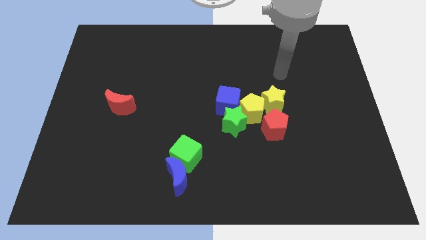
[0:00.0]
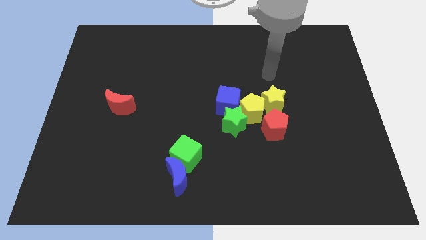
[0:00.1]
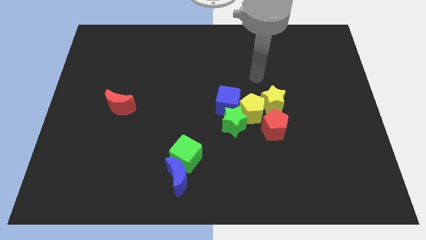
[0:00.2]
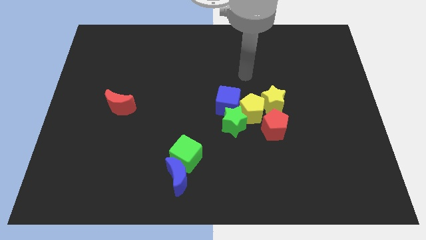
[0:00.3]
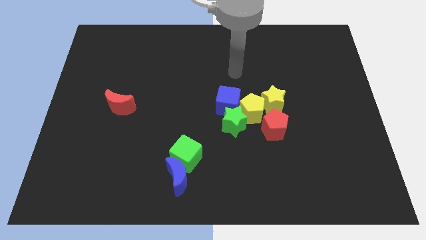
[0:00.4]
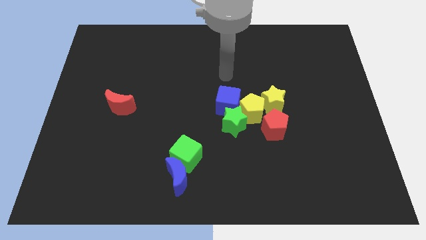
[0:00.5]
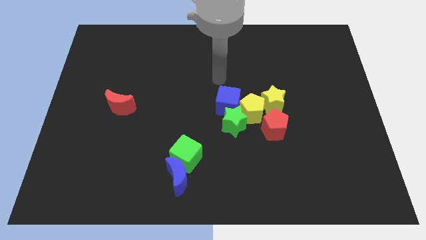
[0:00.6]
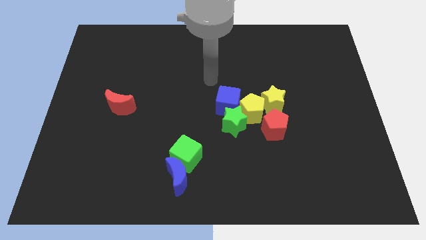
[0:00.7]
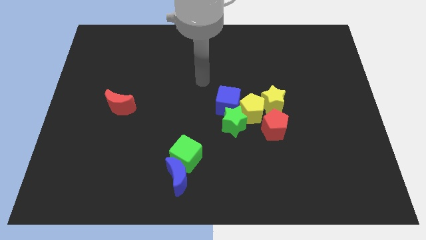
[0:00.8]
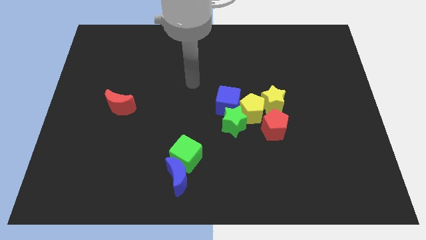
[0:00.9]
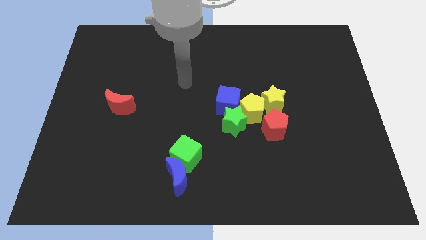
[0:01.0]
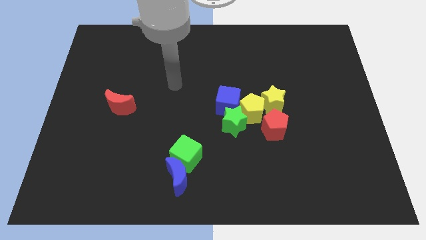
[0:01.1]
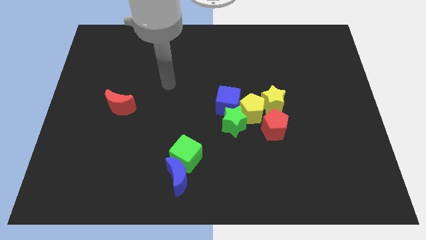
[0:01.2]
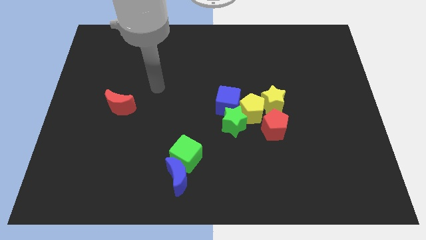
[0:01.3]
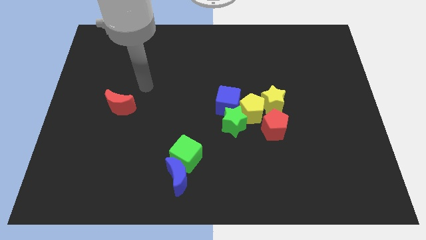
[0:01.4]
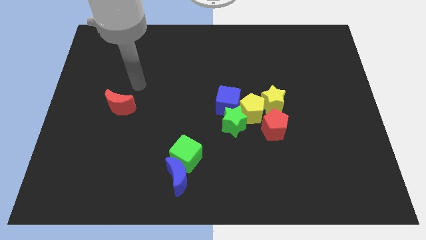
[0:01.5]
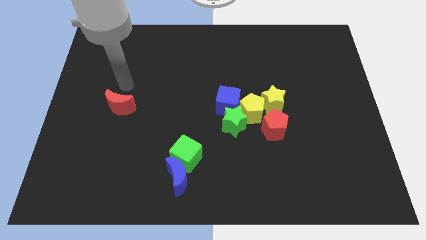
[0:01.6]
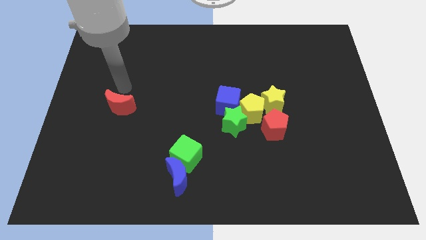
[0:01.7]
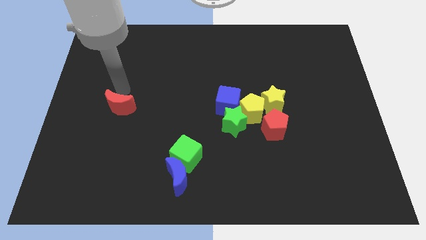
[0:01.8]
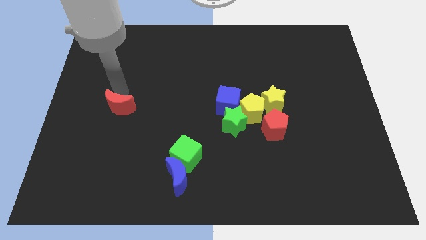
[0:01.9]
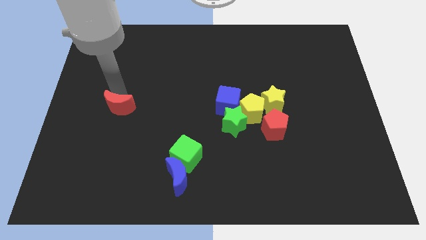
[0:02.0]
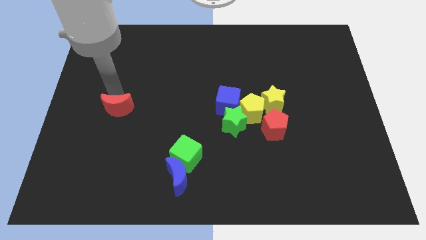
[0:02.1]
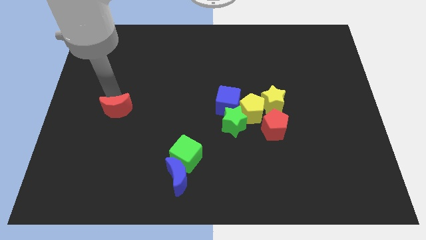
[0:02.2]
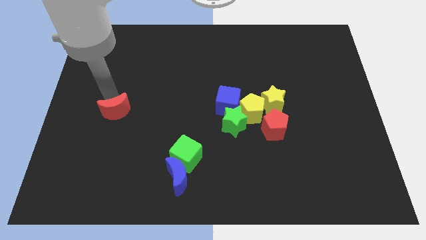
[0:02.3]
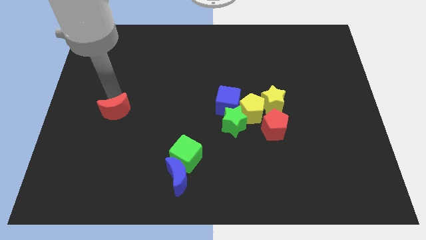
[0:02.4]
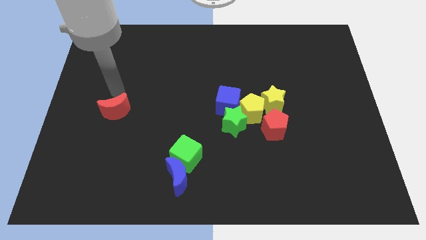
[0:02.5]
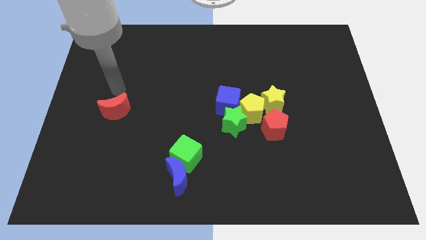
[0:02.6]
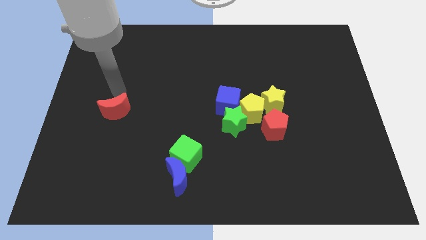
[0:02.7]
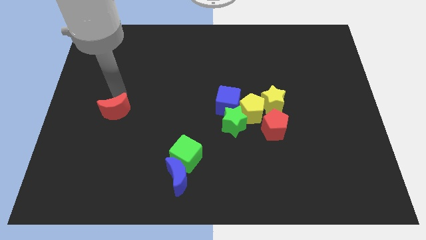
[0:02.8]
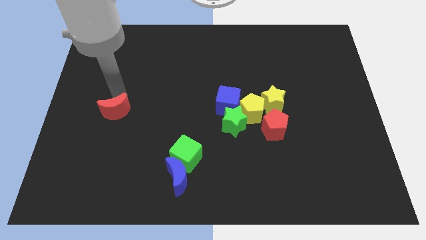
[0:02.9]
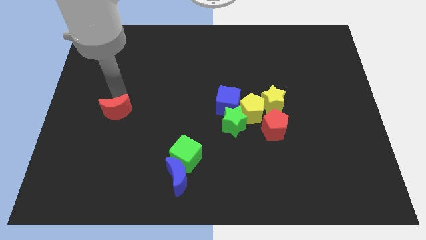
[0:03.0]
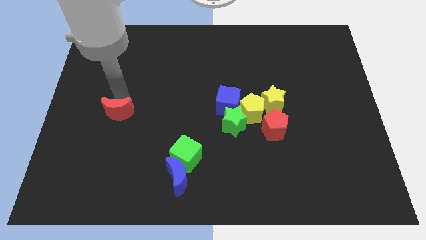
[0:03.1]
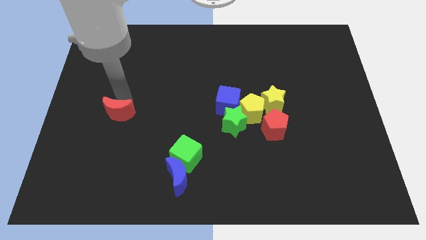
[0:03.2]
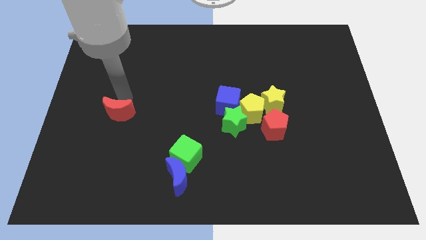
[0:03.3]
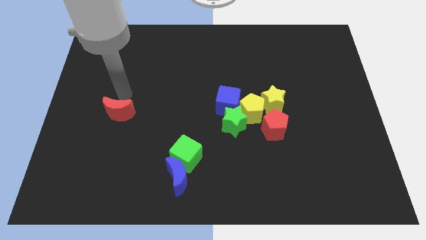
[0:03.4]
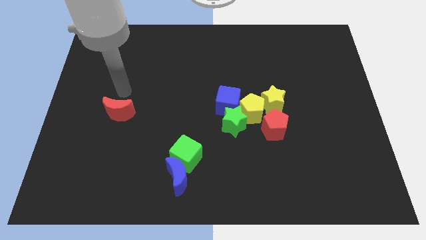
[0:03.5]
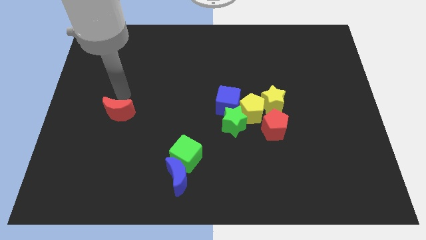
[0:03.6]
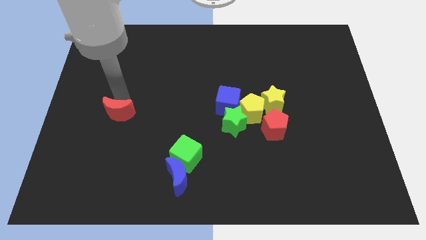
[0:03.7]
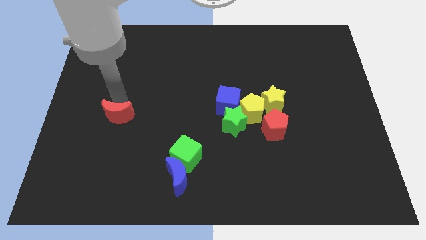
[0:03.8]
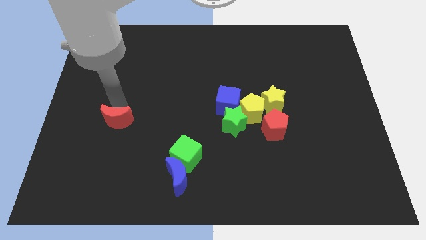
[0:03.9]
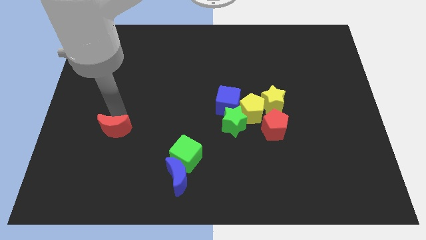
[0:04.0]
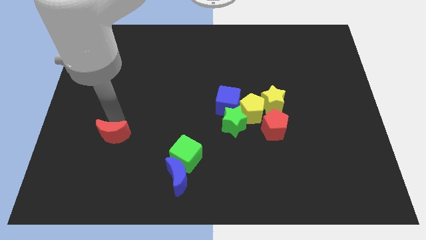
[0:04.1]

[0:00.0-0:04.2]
move the red moon a little downwards

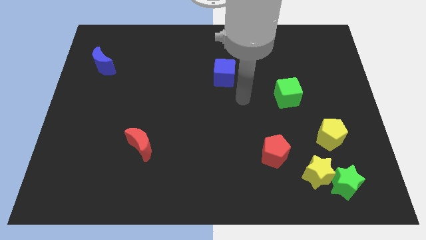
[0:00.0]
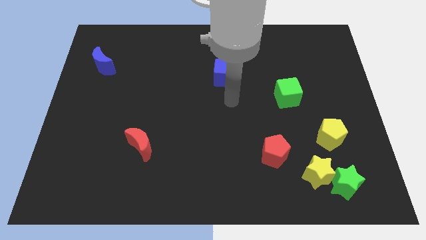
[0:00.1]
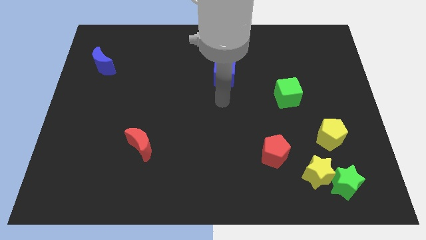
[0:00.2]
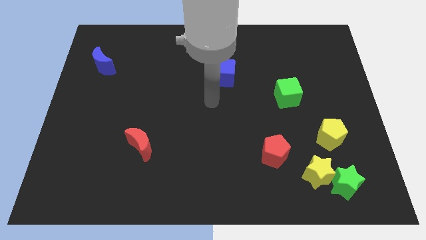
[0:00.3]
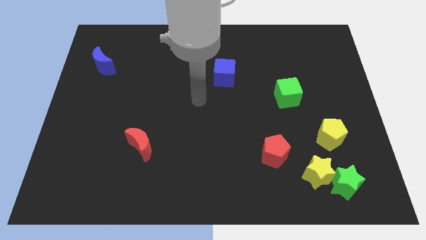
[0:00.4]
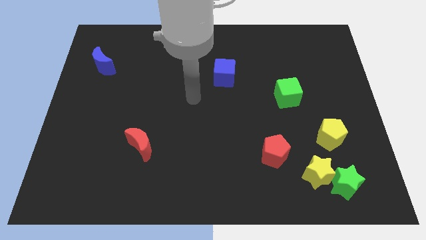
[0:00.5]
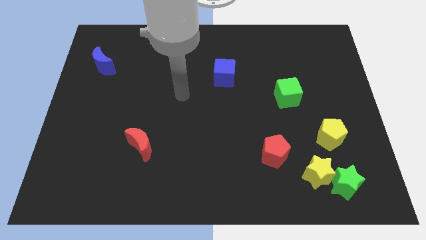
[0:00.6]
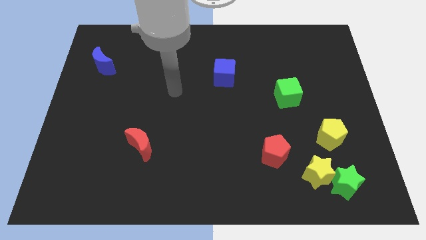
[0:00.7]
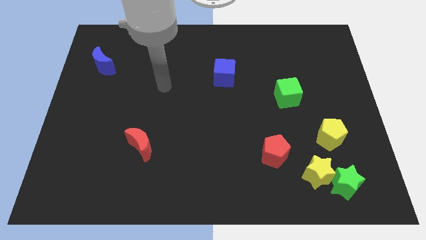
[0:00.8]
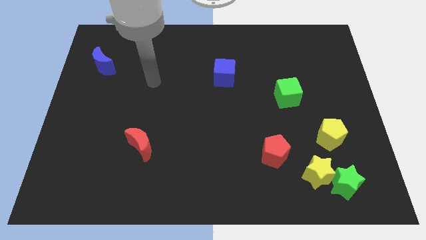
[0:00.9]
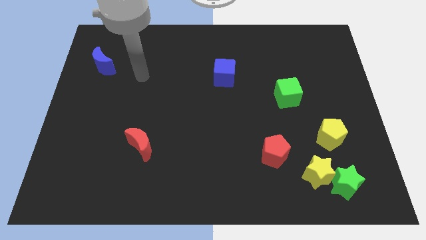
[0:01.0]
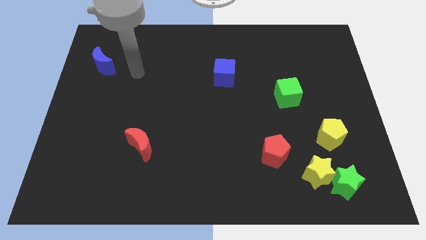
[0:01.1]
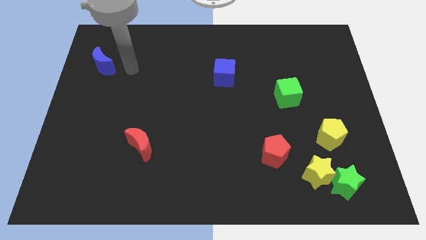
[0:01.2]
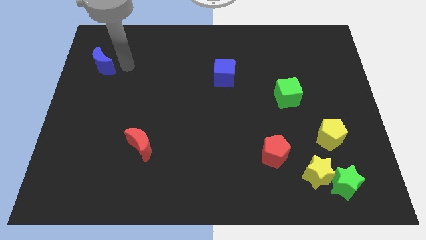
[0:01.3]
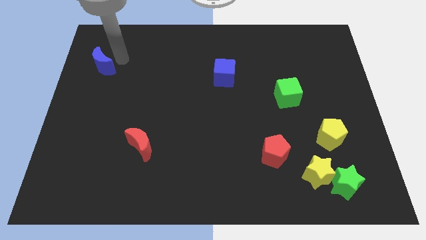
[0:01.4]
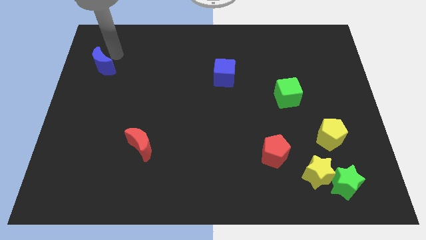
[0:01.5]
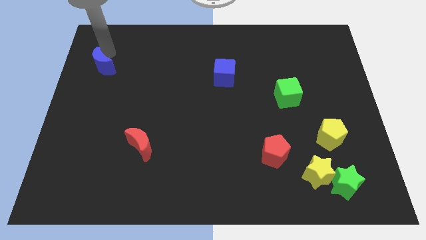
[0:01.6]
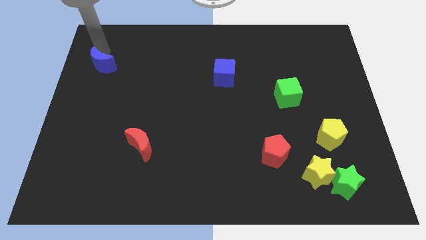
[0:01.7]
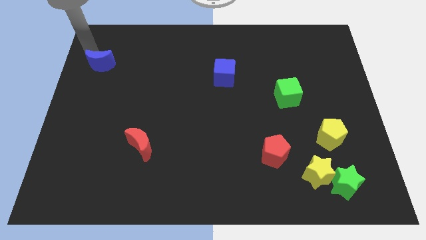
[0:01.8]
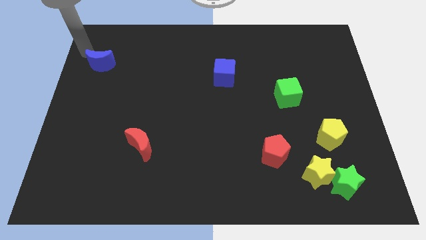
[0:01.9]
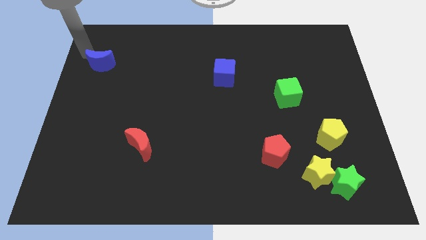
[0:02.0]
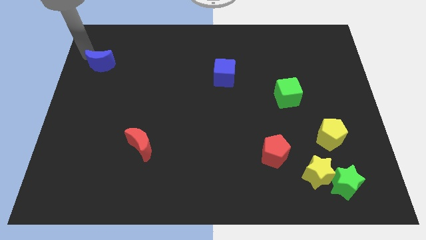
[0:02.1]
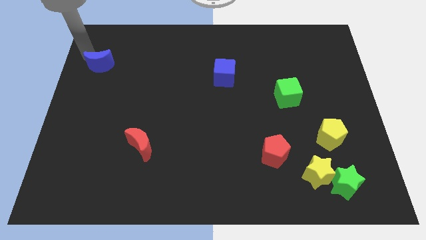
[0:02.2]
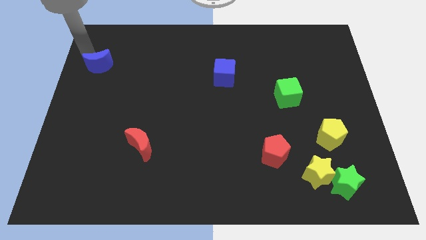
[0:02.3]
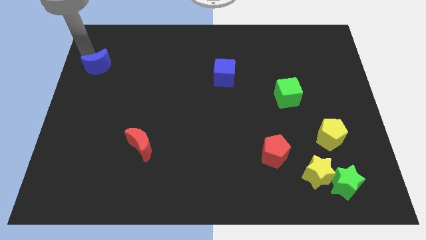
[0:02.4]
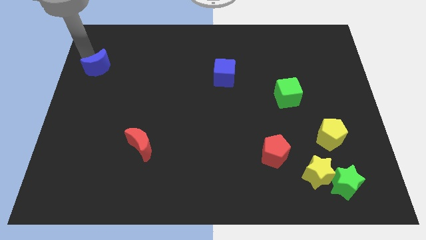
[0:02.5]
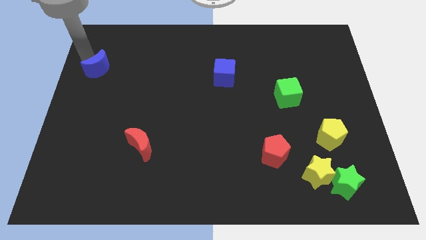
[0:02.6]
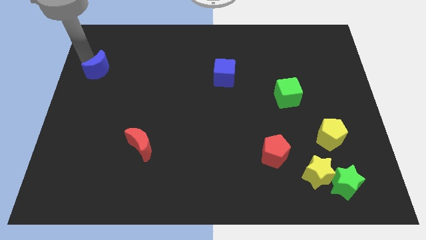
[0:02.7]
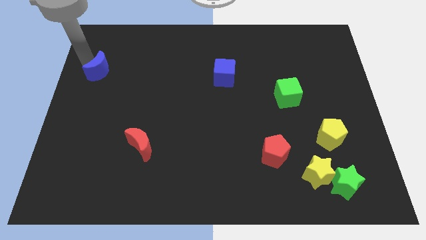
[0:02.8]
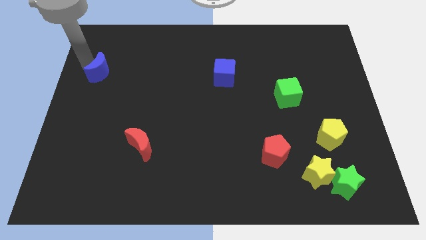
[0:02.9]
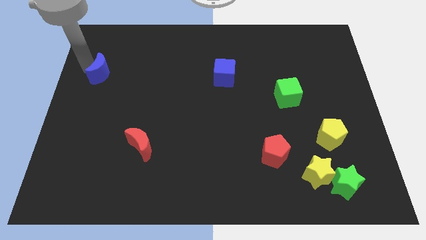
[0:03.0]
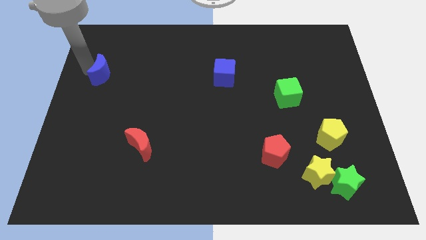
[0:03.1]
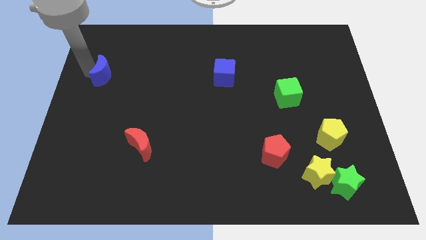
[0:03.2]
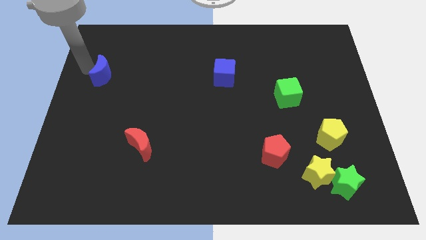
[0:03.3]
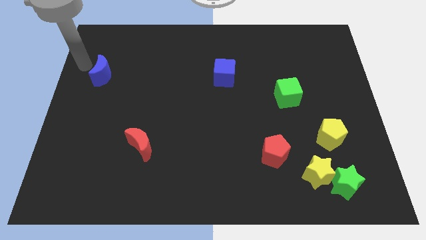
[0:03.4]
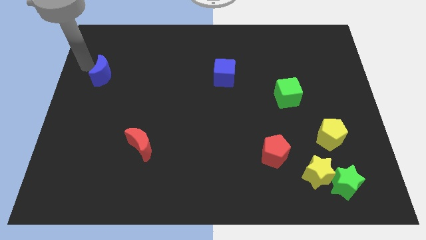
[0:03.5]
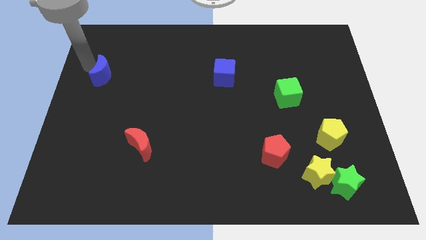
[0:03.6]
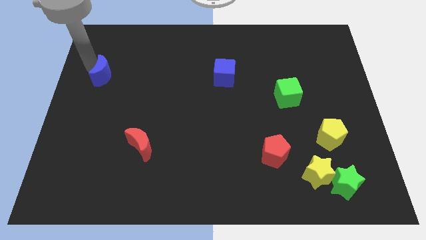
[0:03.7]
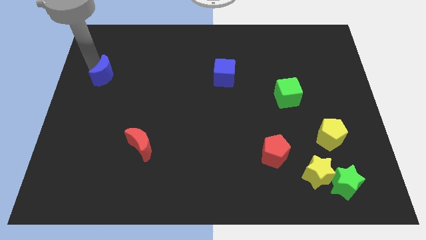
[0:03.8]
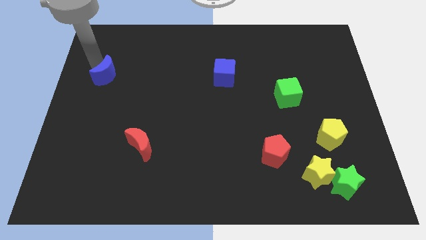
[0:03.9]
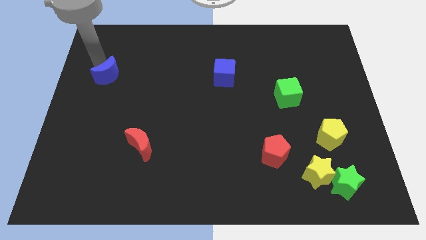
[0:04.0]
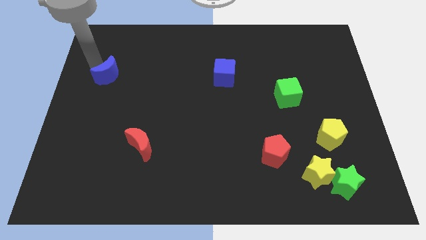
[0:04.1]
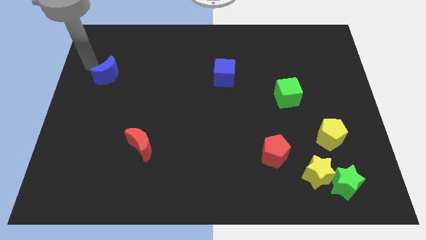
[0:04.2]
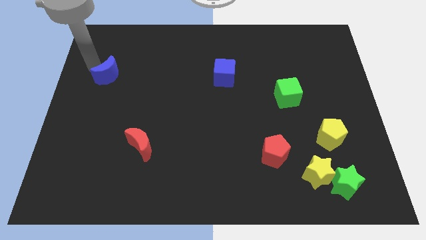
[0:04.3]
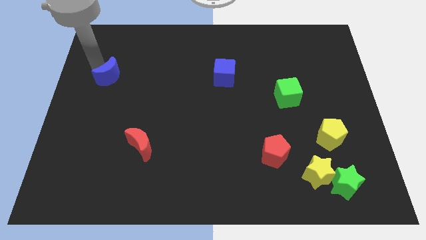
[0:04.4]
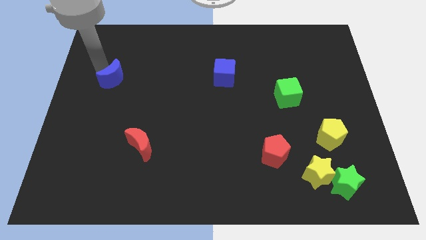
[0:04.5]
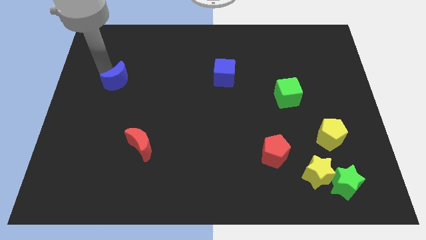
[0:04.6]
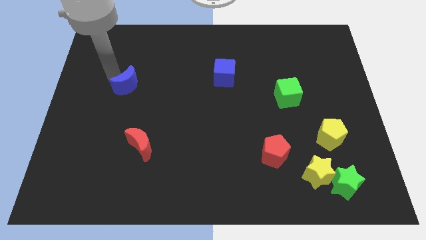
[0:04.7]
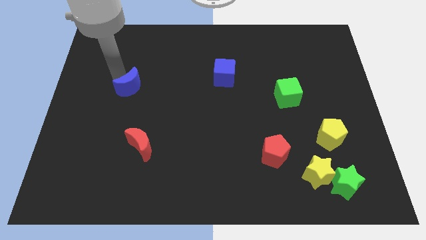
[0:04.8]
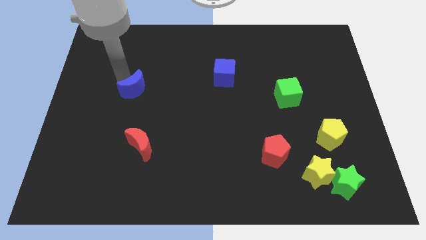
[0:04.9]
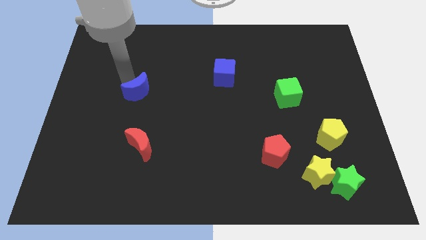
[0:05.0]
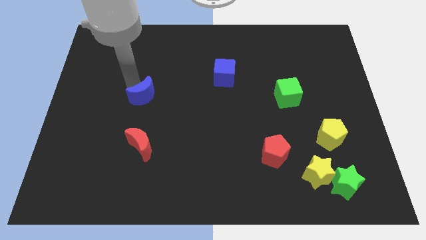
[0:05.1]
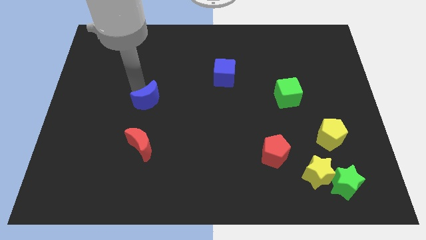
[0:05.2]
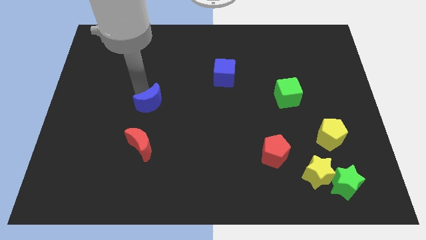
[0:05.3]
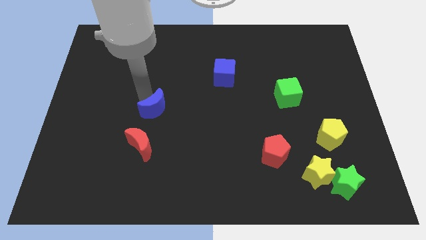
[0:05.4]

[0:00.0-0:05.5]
slide the blue moon down and to the right
